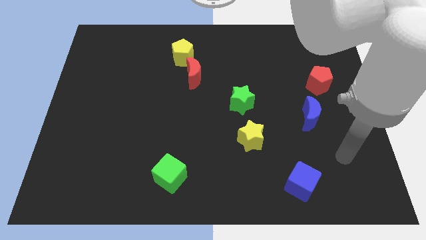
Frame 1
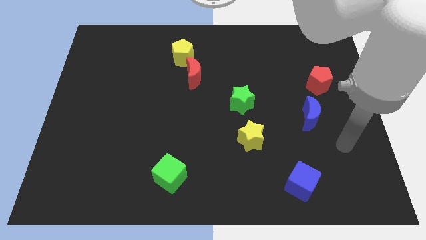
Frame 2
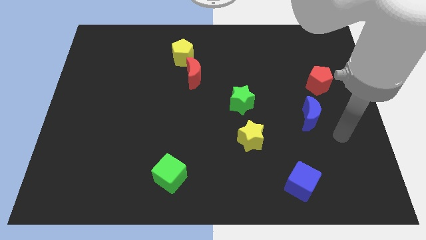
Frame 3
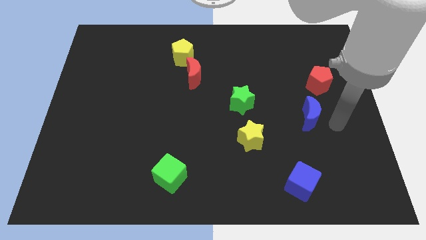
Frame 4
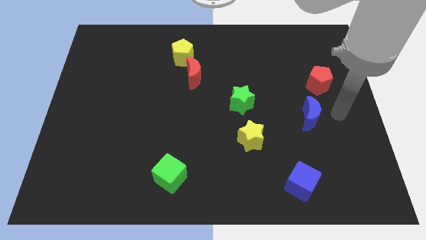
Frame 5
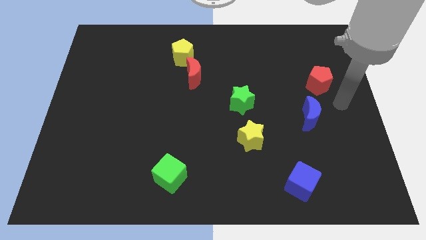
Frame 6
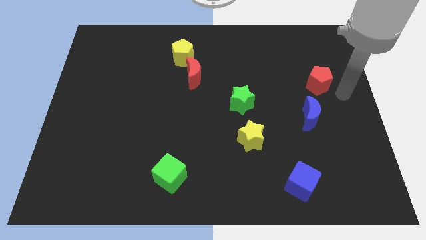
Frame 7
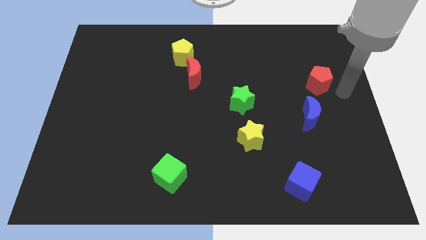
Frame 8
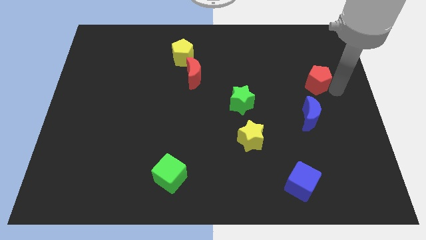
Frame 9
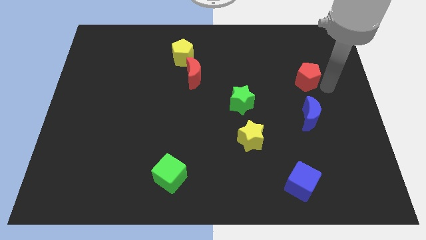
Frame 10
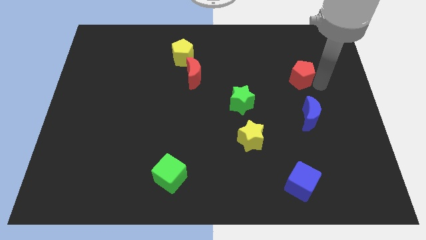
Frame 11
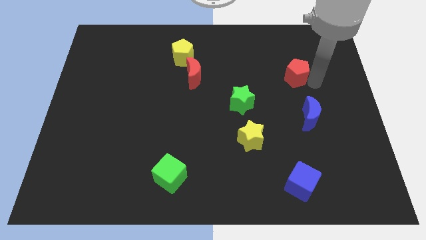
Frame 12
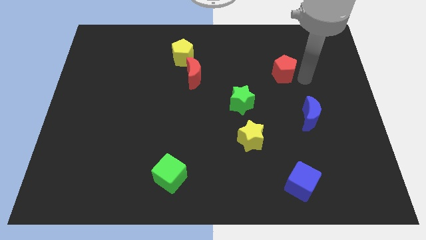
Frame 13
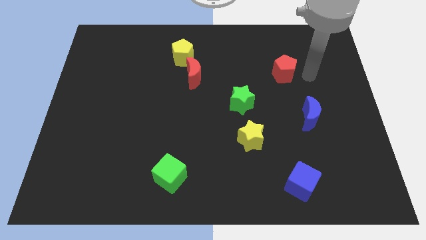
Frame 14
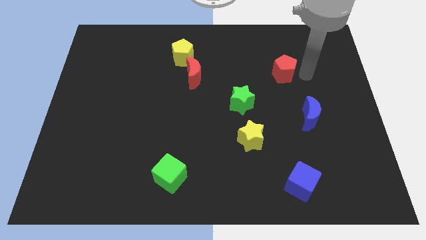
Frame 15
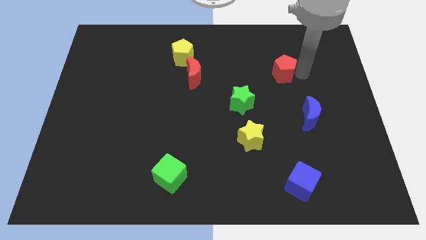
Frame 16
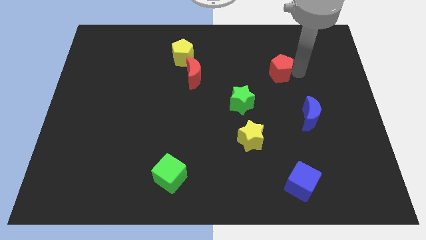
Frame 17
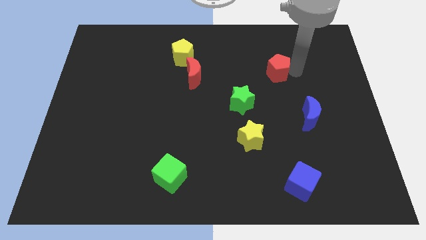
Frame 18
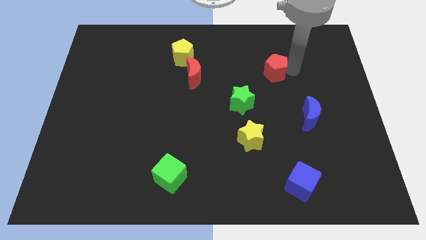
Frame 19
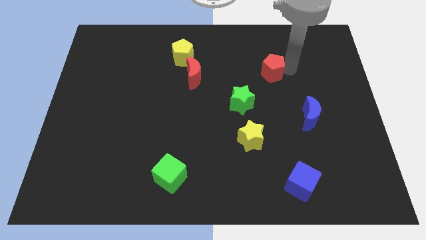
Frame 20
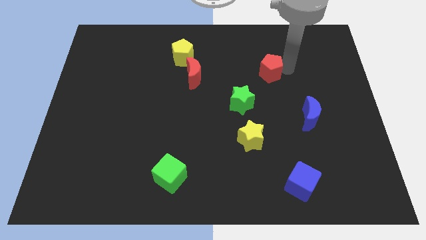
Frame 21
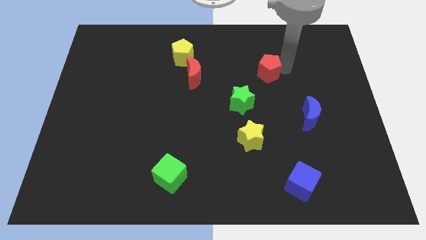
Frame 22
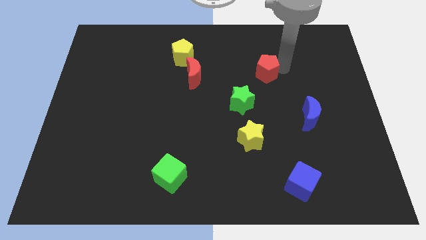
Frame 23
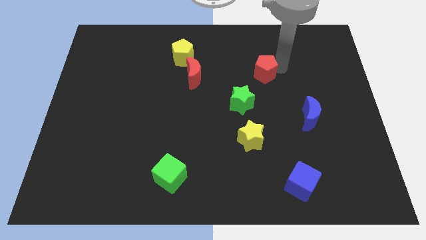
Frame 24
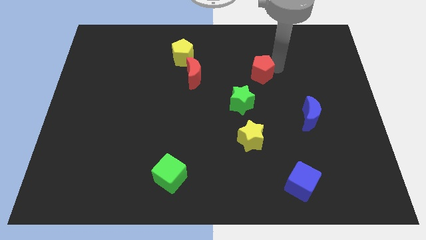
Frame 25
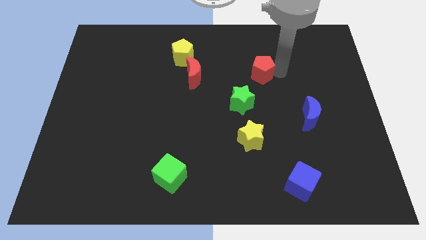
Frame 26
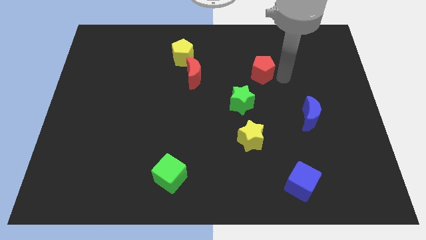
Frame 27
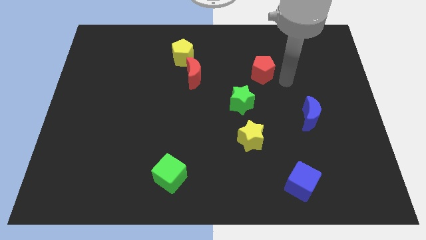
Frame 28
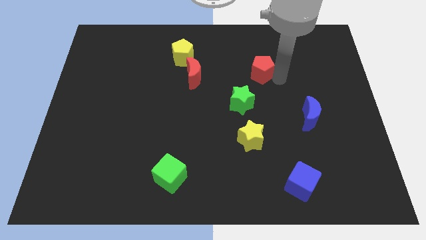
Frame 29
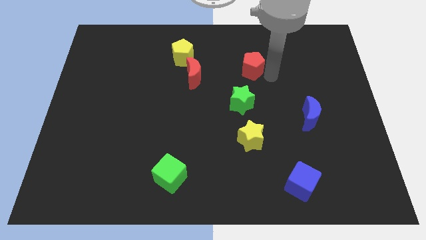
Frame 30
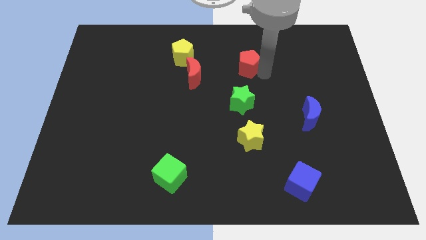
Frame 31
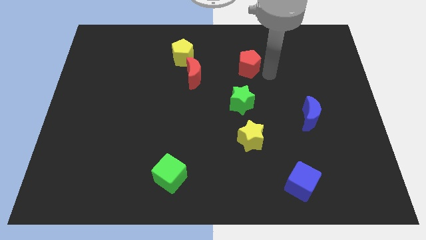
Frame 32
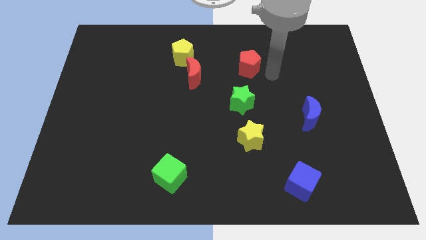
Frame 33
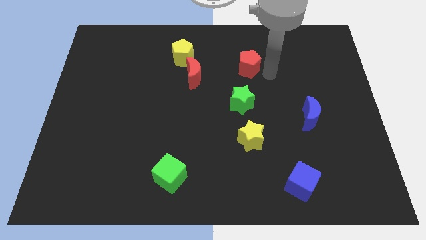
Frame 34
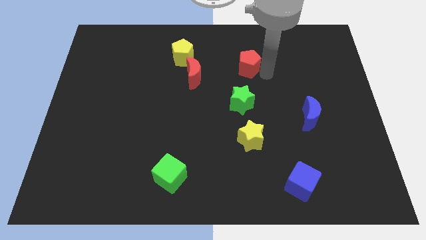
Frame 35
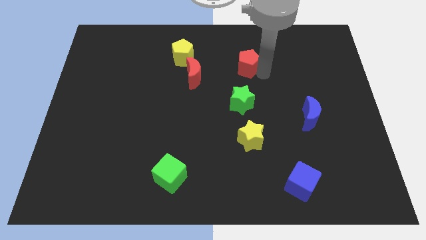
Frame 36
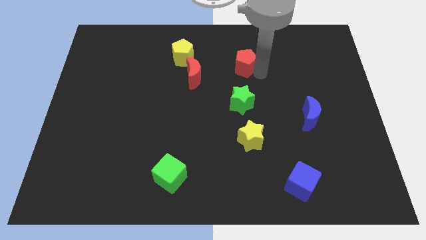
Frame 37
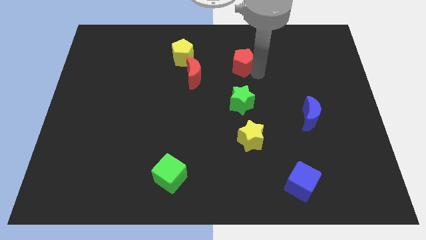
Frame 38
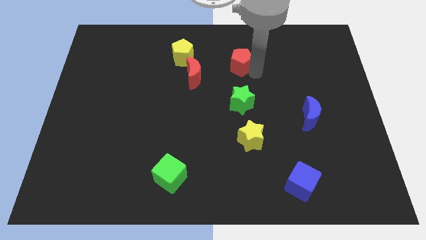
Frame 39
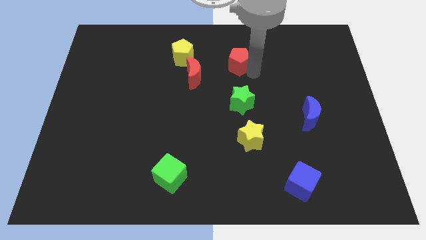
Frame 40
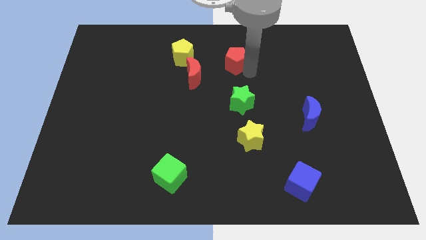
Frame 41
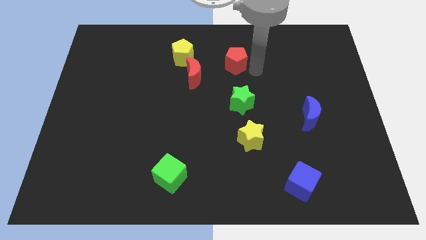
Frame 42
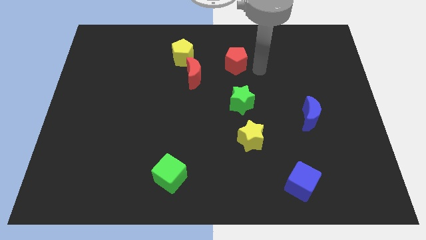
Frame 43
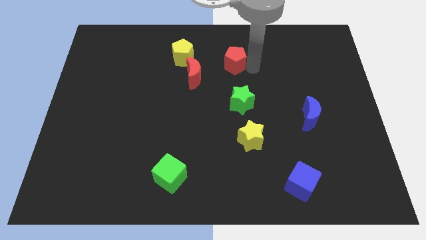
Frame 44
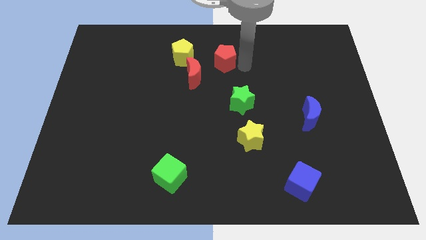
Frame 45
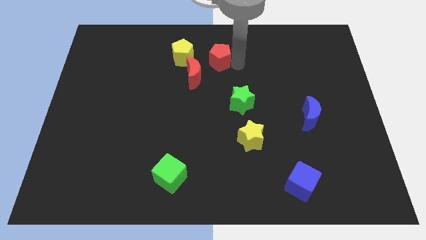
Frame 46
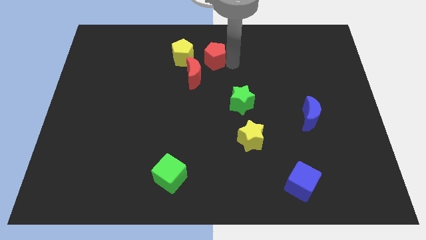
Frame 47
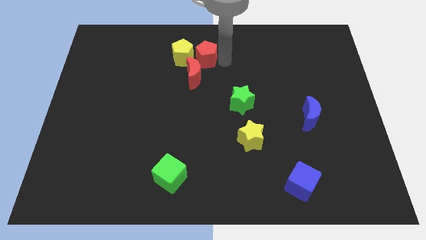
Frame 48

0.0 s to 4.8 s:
slide the red pentagon to the yellow pentagon

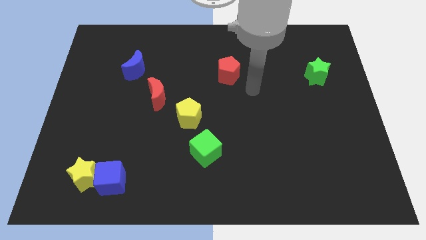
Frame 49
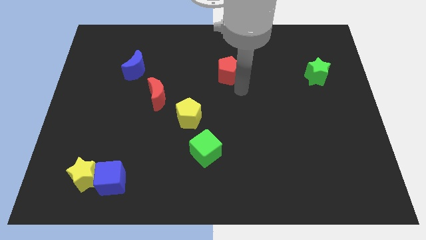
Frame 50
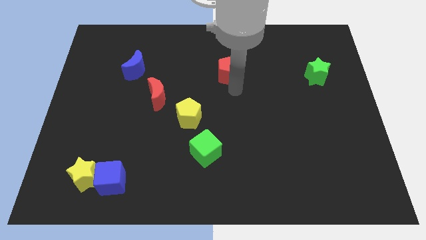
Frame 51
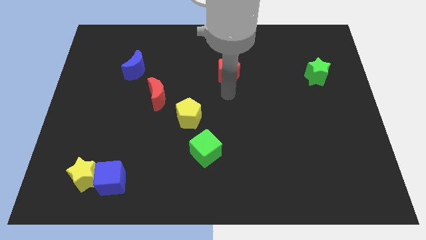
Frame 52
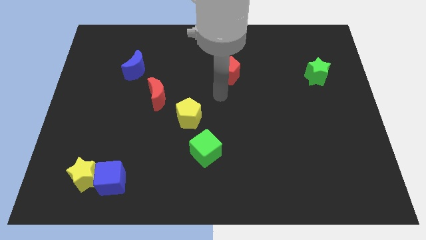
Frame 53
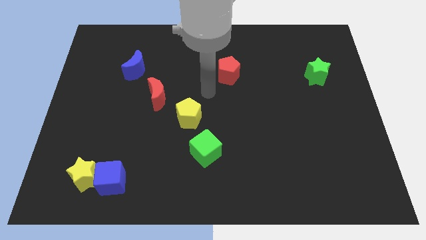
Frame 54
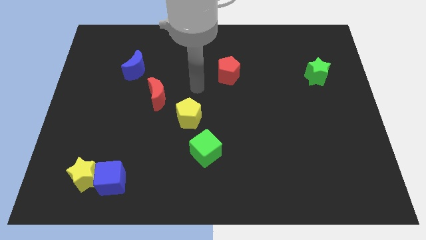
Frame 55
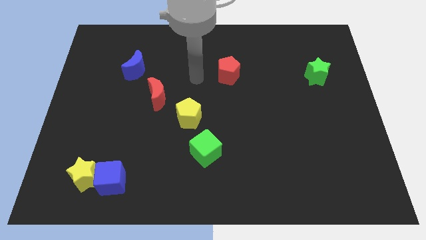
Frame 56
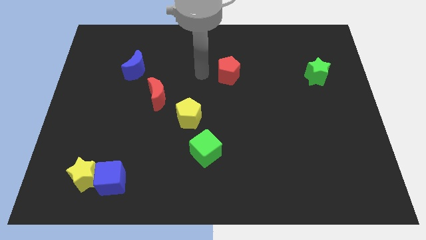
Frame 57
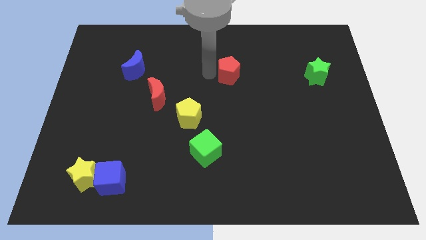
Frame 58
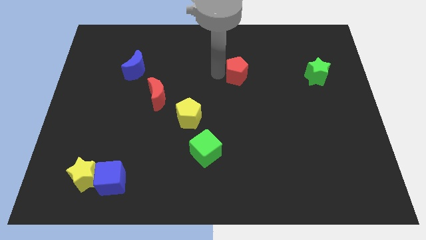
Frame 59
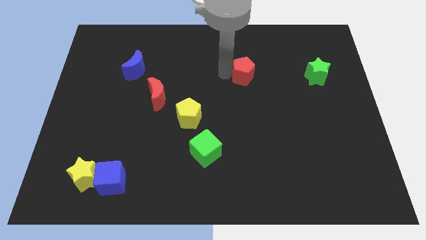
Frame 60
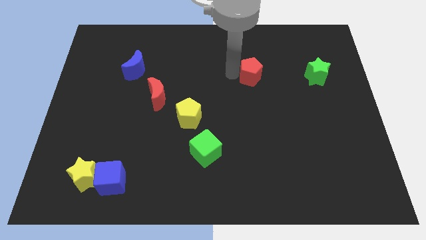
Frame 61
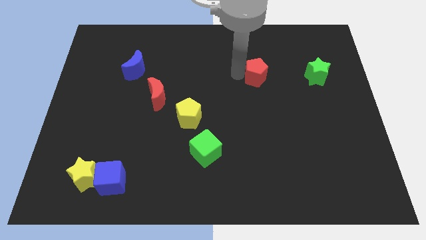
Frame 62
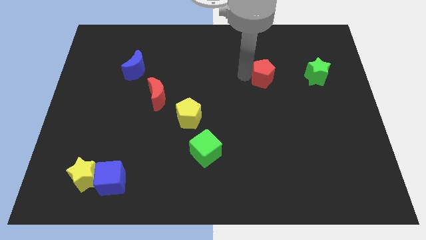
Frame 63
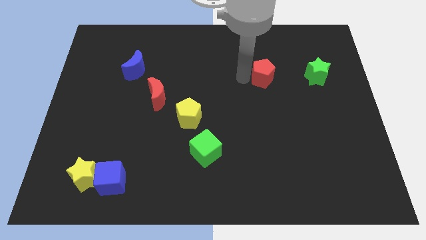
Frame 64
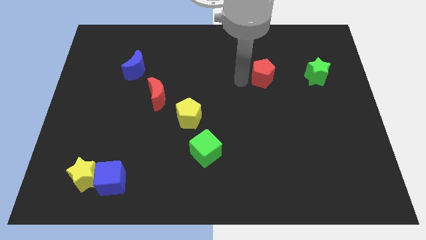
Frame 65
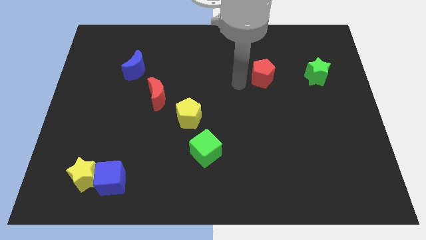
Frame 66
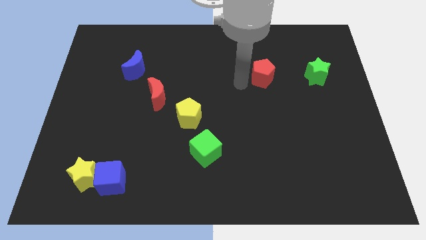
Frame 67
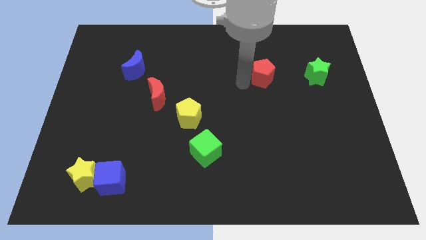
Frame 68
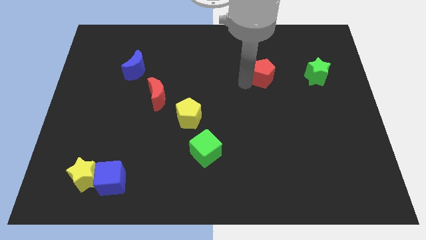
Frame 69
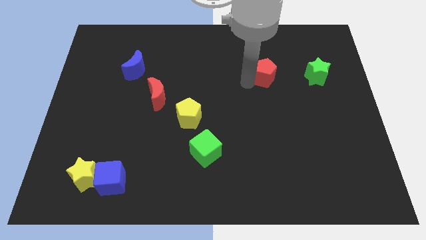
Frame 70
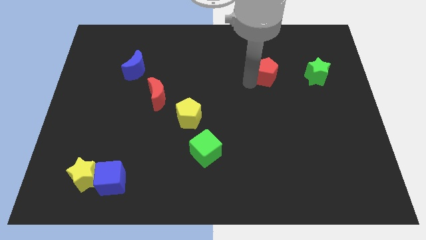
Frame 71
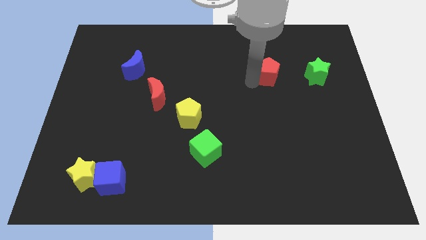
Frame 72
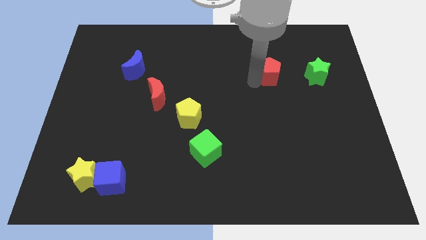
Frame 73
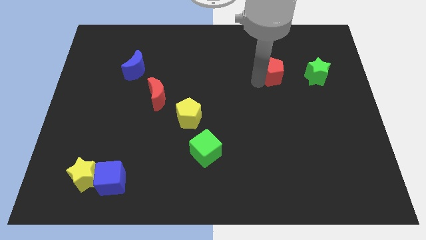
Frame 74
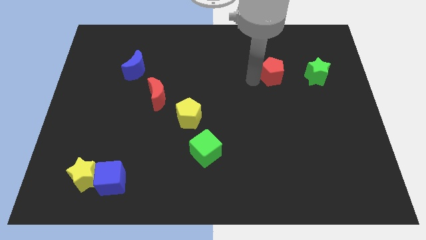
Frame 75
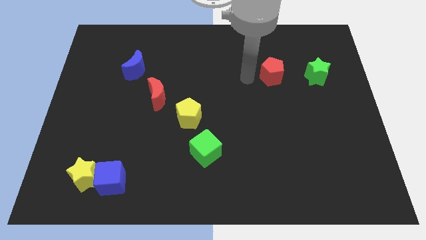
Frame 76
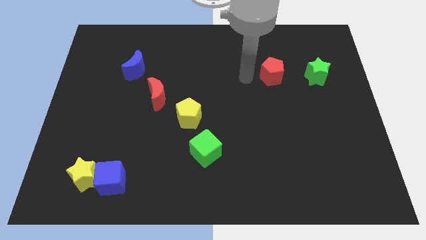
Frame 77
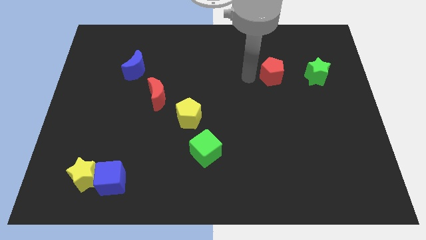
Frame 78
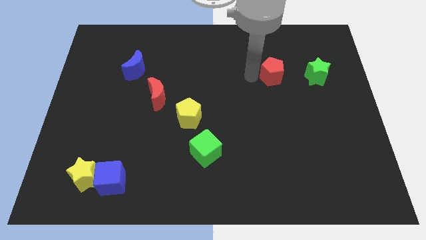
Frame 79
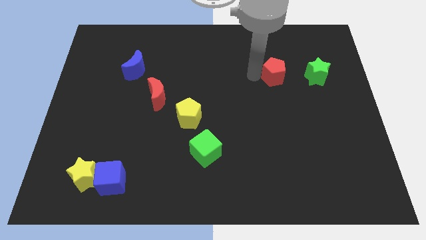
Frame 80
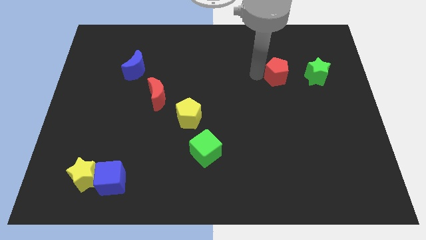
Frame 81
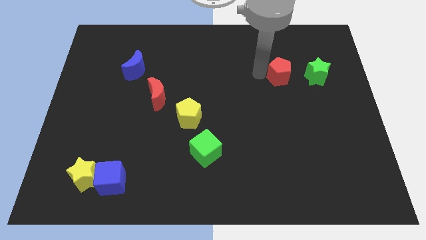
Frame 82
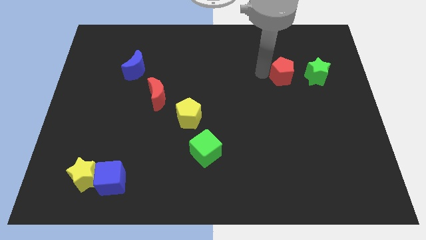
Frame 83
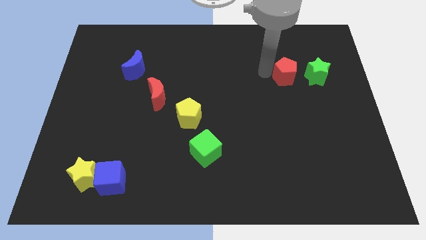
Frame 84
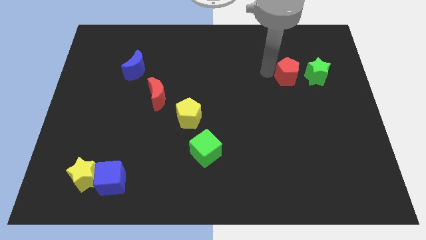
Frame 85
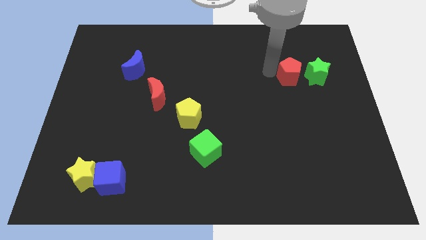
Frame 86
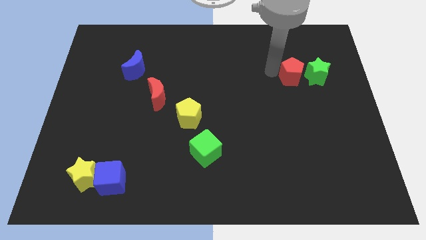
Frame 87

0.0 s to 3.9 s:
slide the red pentagon close to the green star
